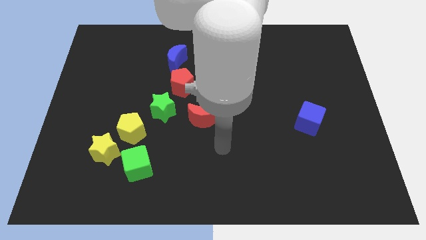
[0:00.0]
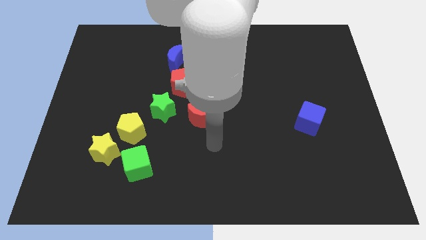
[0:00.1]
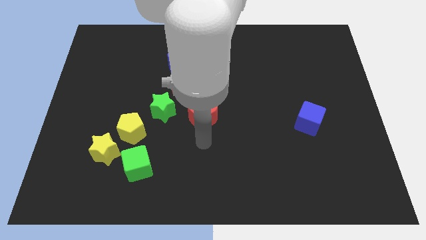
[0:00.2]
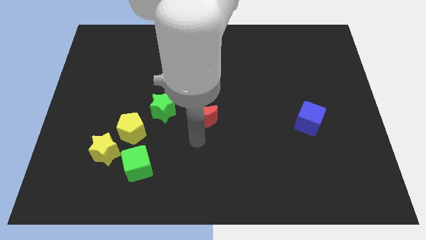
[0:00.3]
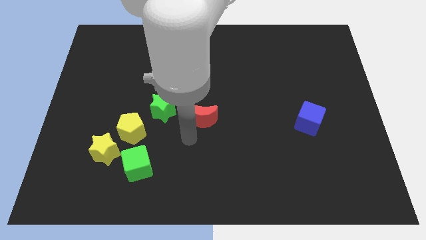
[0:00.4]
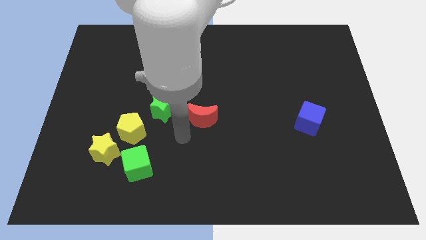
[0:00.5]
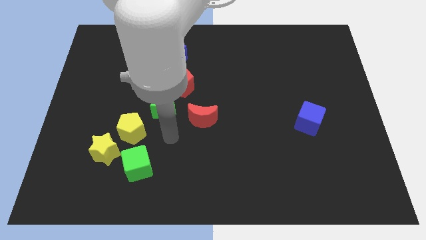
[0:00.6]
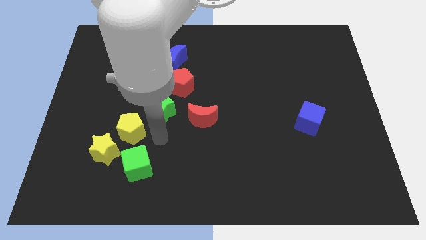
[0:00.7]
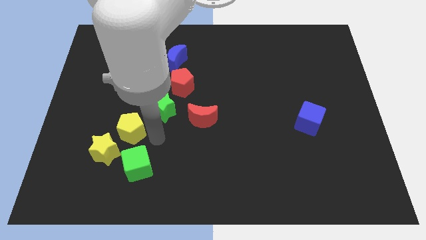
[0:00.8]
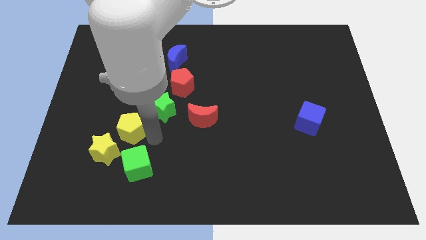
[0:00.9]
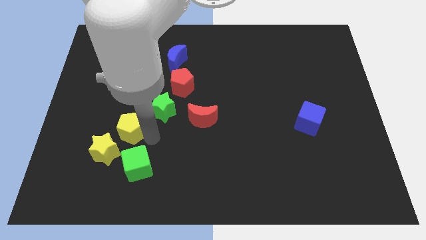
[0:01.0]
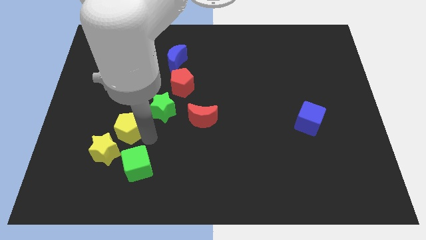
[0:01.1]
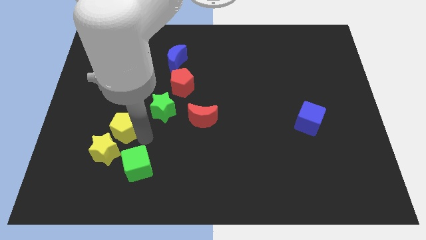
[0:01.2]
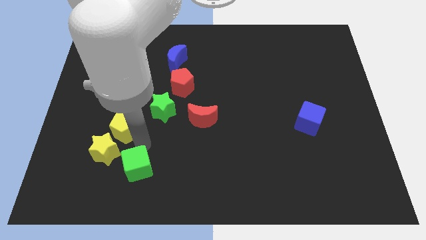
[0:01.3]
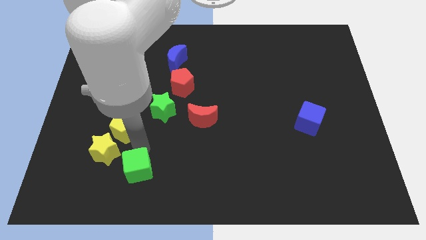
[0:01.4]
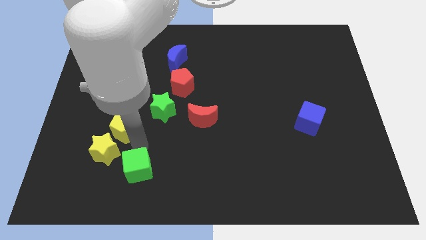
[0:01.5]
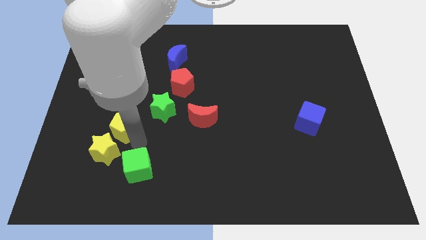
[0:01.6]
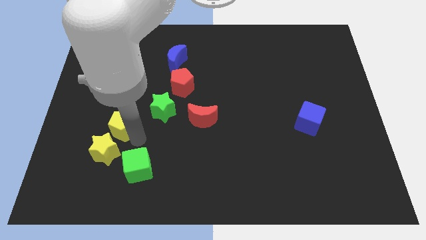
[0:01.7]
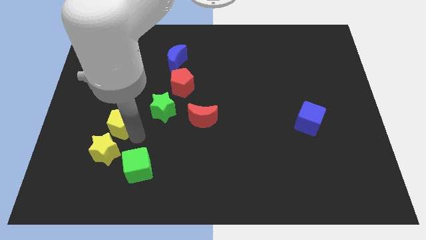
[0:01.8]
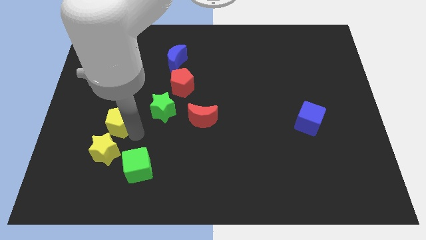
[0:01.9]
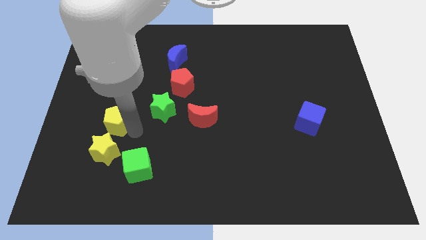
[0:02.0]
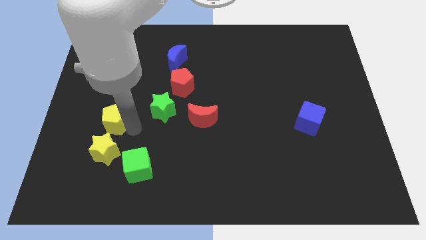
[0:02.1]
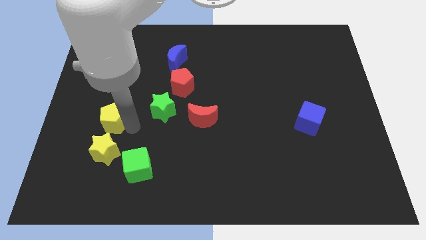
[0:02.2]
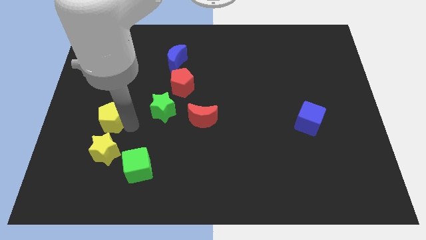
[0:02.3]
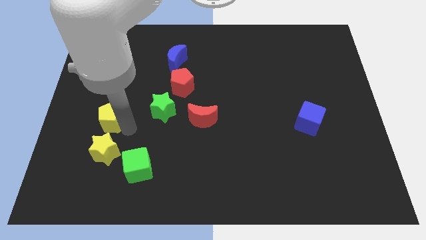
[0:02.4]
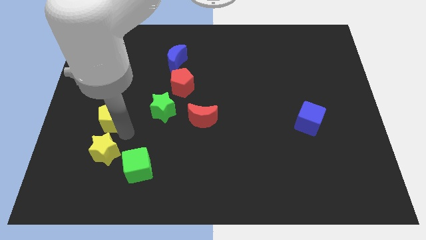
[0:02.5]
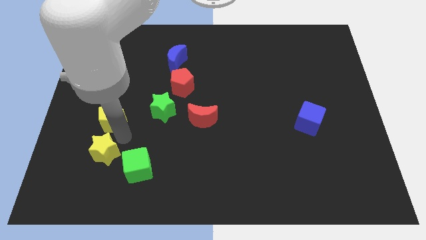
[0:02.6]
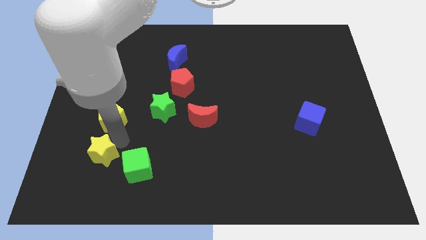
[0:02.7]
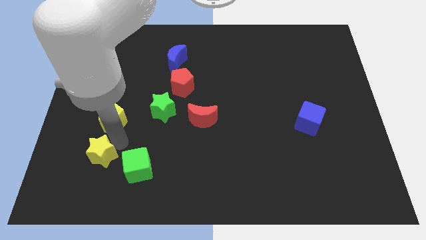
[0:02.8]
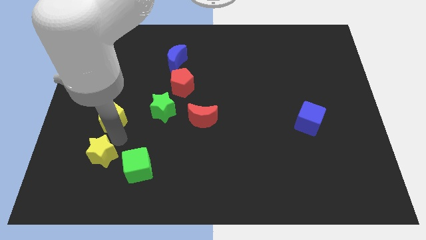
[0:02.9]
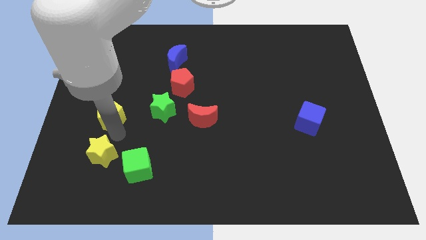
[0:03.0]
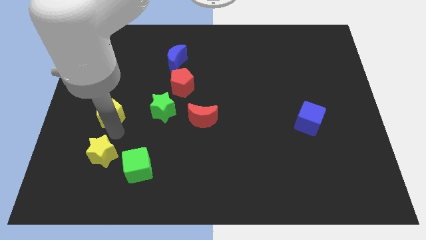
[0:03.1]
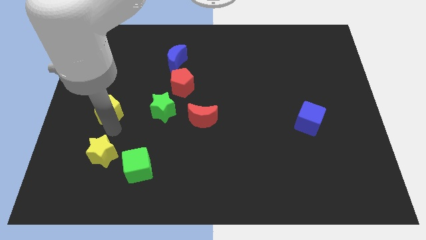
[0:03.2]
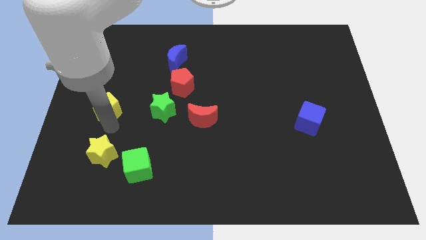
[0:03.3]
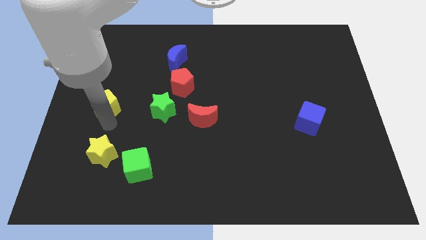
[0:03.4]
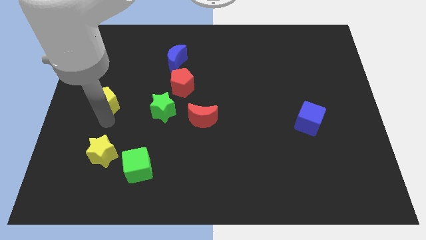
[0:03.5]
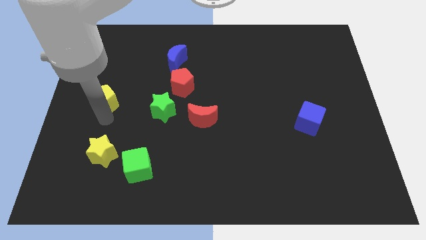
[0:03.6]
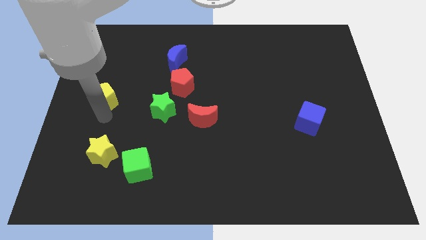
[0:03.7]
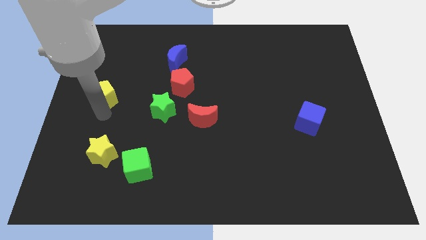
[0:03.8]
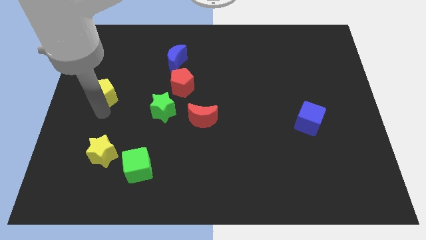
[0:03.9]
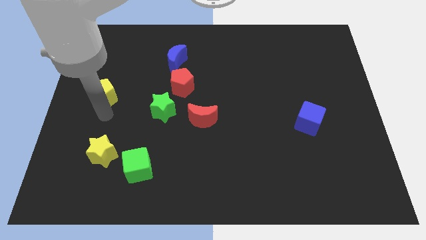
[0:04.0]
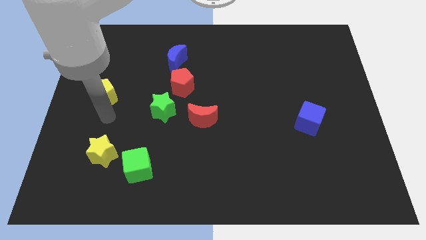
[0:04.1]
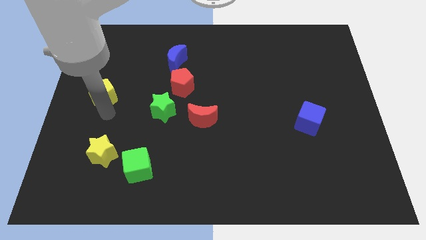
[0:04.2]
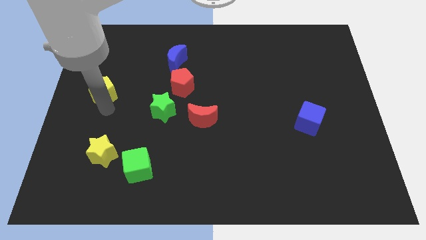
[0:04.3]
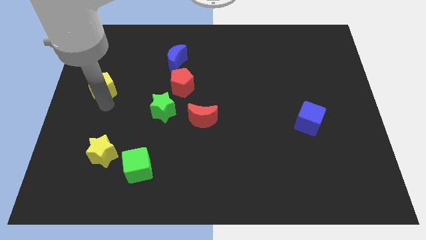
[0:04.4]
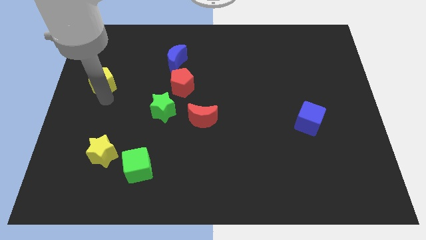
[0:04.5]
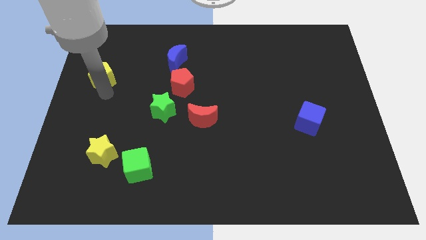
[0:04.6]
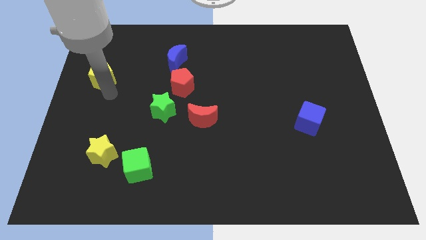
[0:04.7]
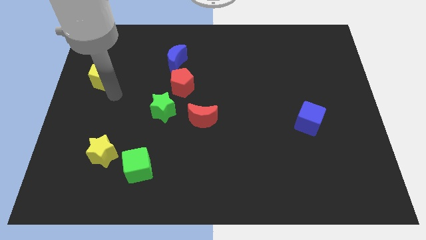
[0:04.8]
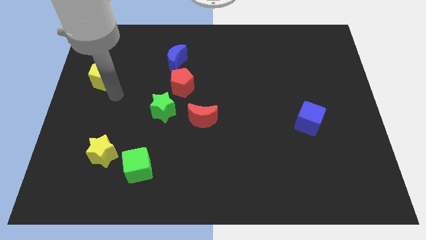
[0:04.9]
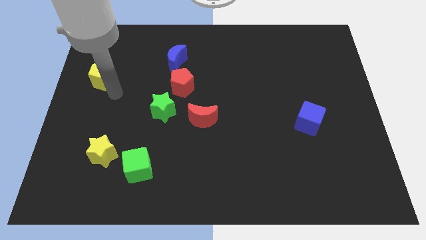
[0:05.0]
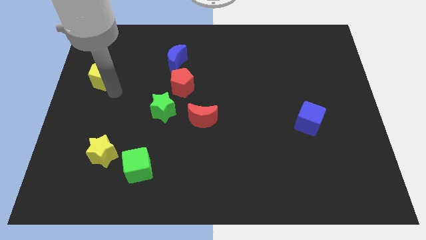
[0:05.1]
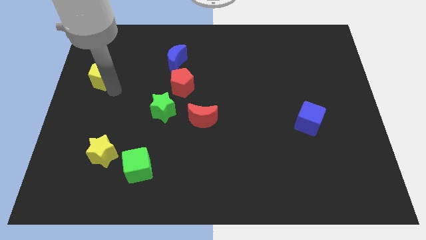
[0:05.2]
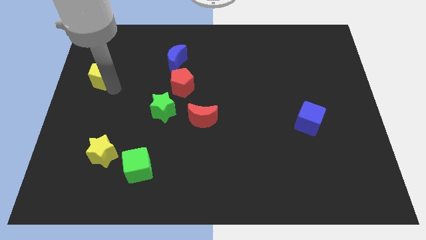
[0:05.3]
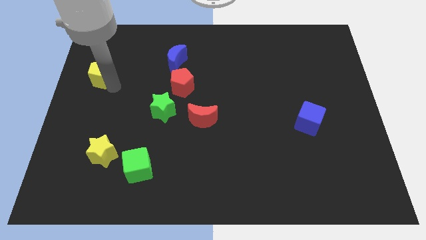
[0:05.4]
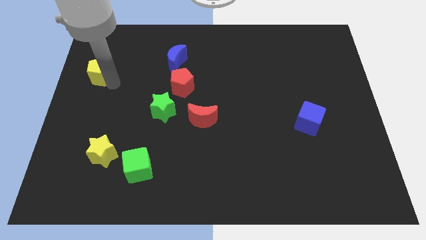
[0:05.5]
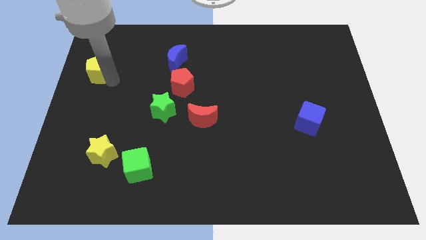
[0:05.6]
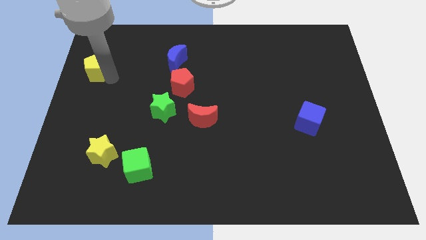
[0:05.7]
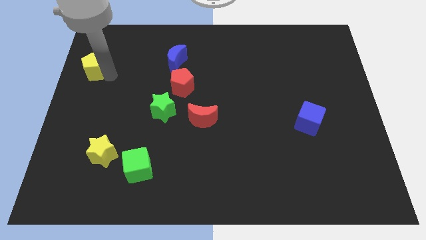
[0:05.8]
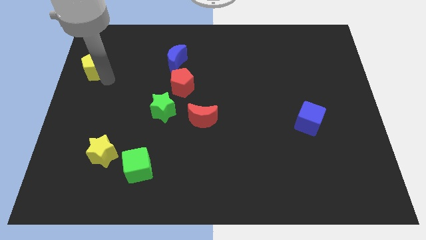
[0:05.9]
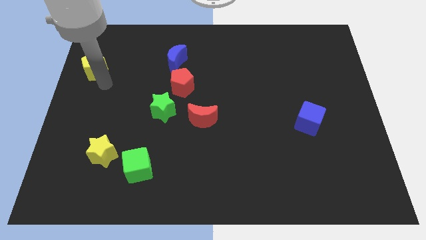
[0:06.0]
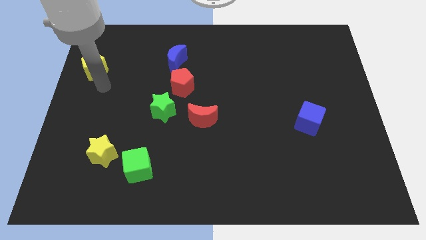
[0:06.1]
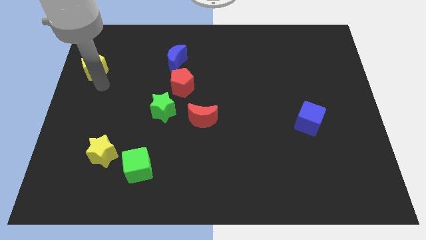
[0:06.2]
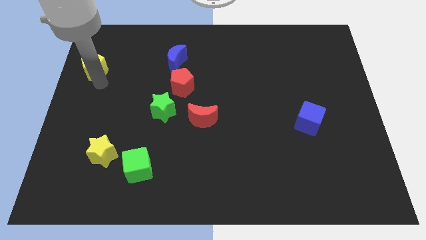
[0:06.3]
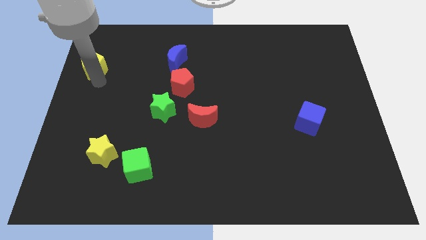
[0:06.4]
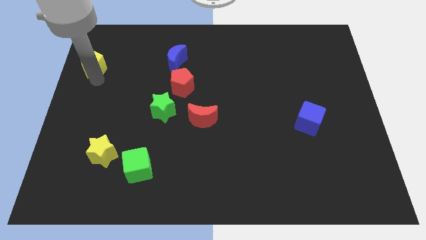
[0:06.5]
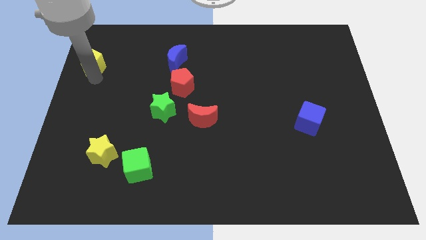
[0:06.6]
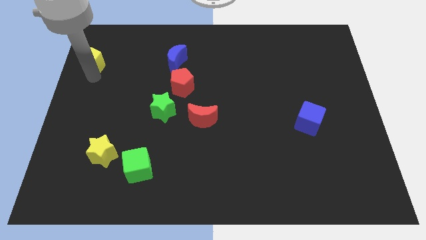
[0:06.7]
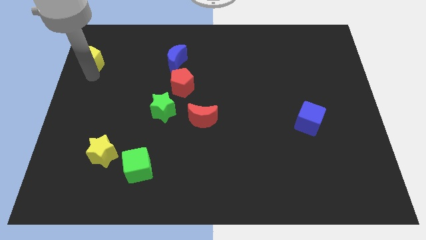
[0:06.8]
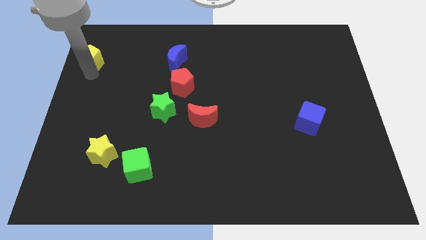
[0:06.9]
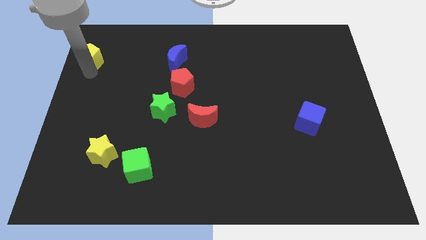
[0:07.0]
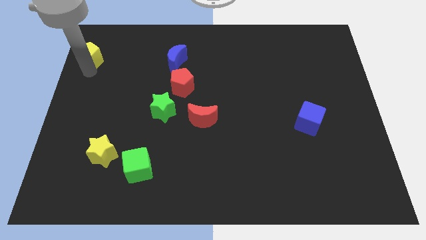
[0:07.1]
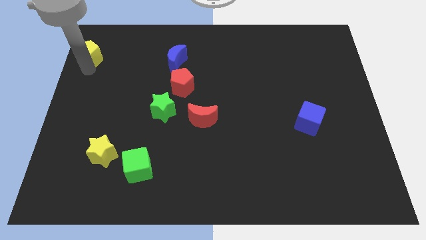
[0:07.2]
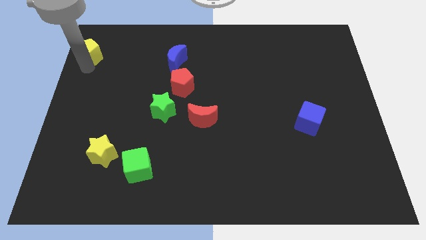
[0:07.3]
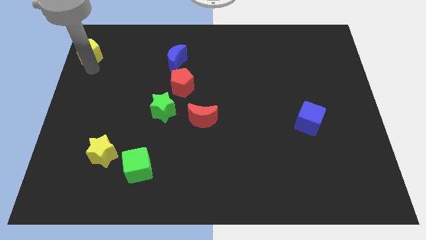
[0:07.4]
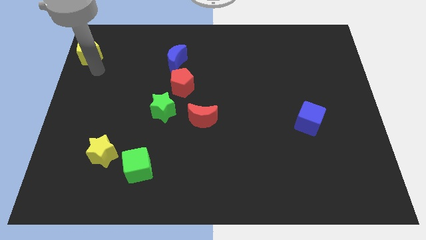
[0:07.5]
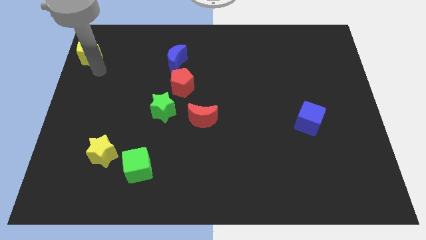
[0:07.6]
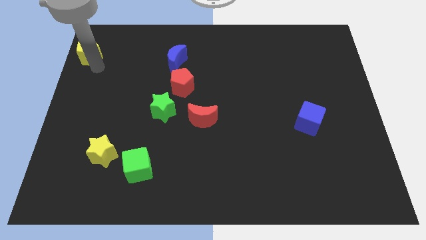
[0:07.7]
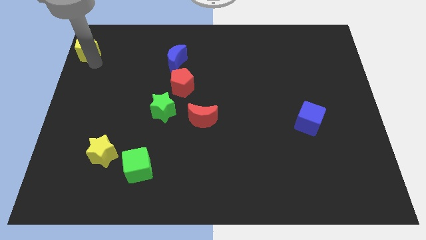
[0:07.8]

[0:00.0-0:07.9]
move the yellow pentagon to the upper left corner

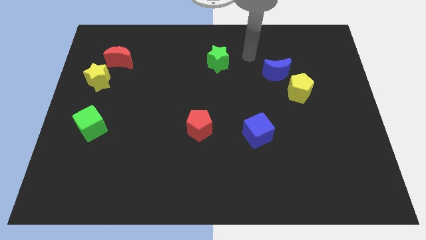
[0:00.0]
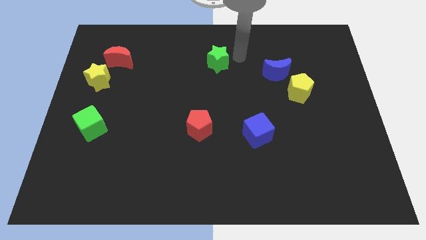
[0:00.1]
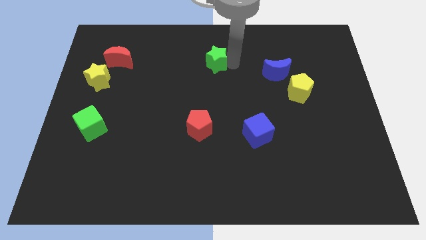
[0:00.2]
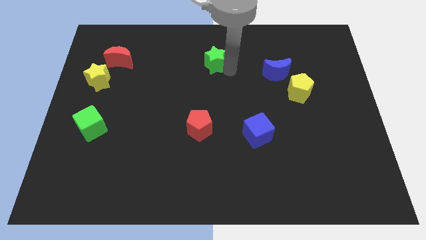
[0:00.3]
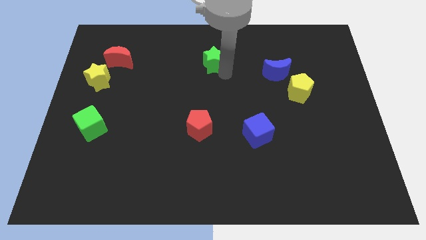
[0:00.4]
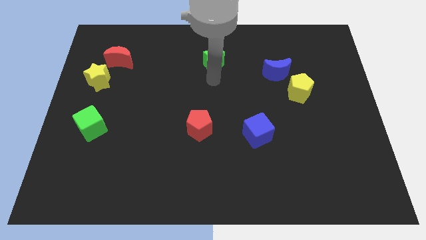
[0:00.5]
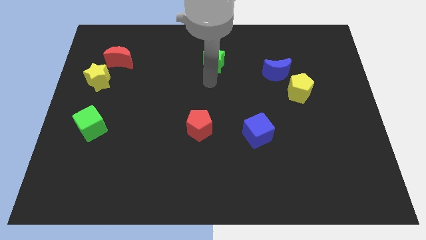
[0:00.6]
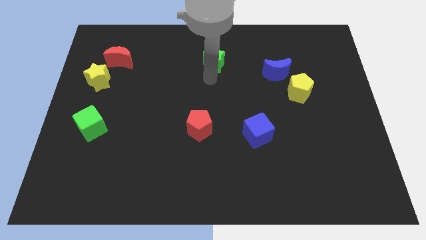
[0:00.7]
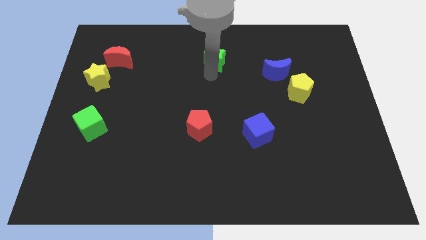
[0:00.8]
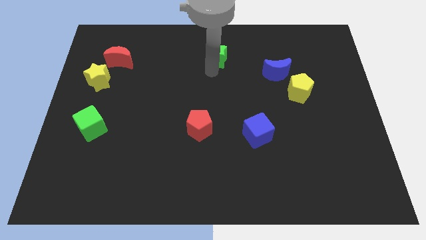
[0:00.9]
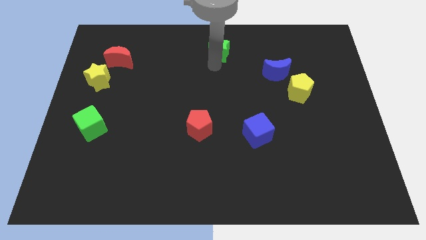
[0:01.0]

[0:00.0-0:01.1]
move the green star to the towards your base
